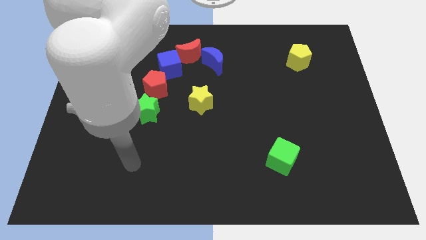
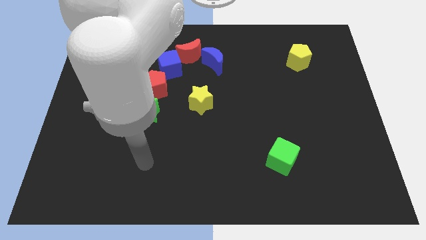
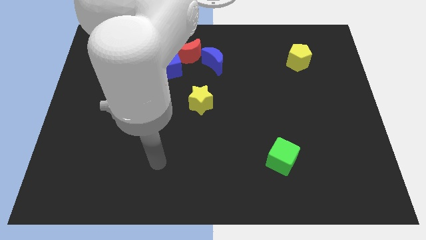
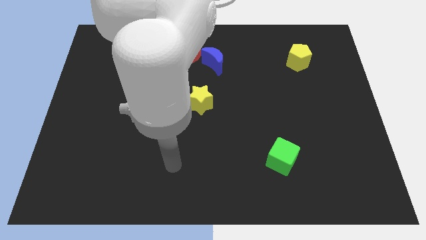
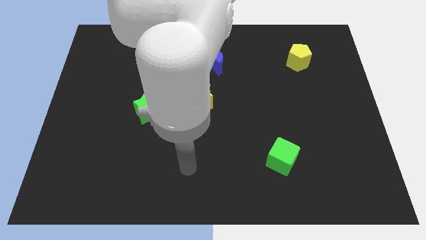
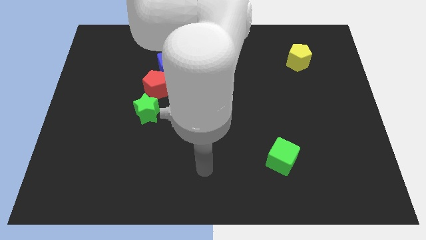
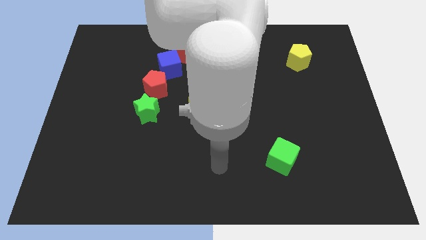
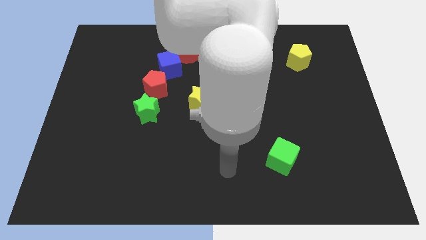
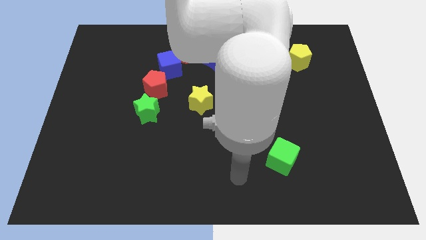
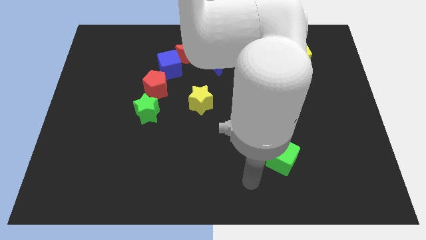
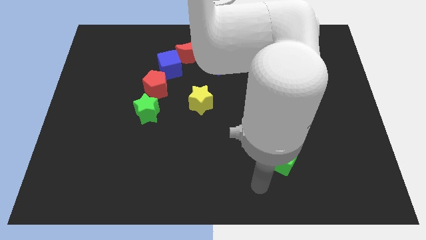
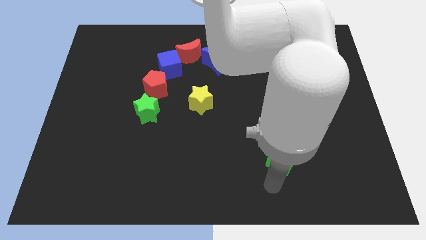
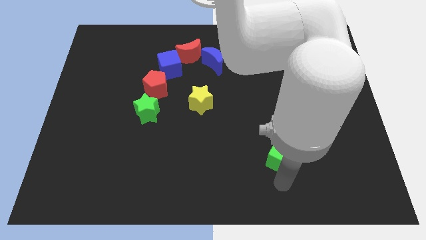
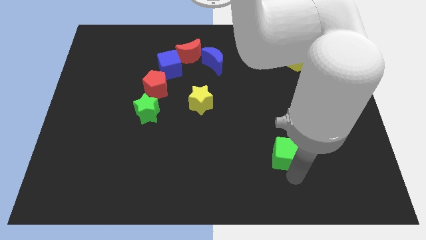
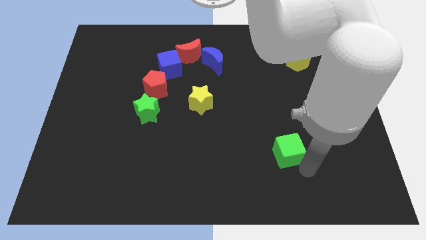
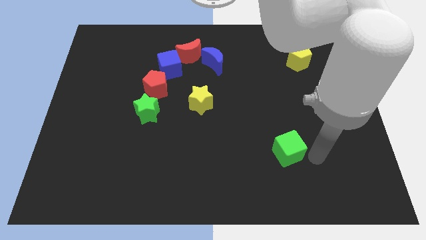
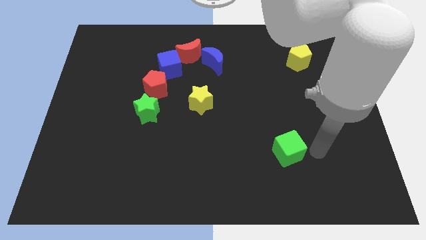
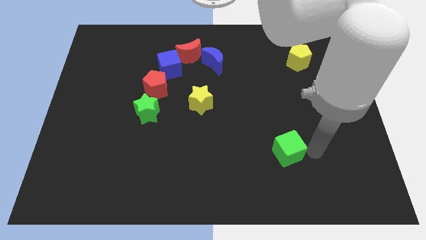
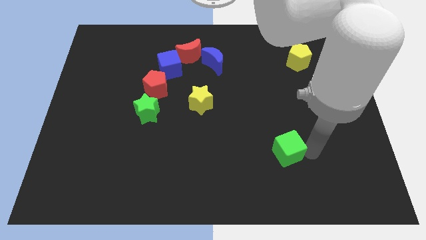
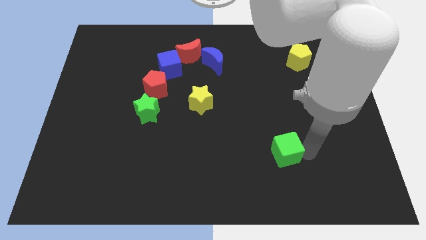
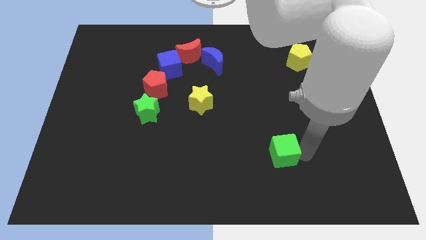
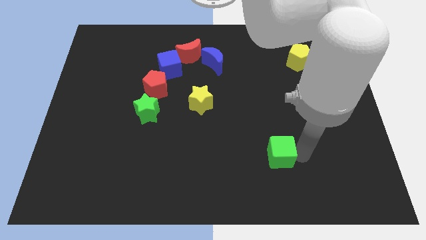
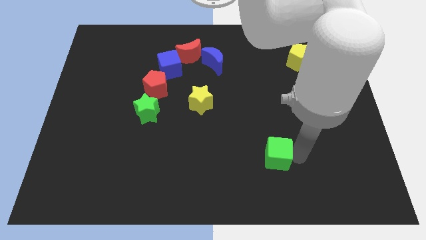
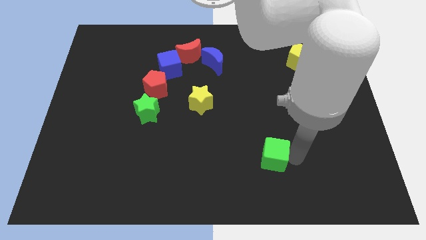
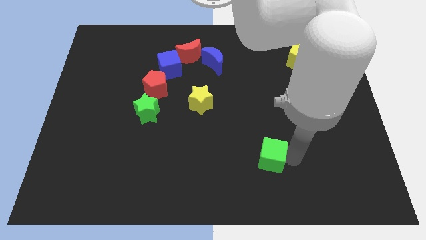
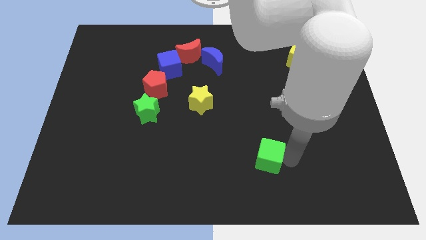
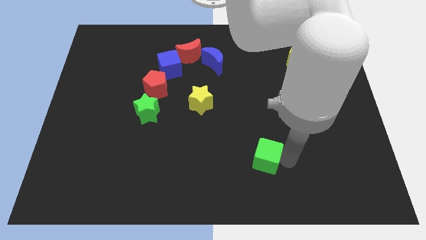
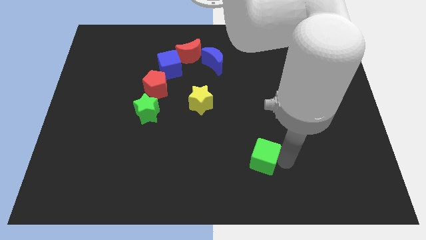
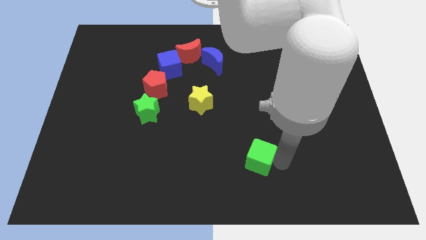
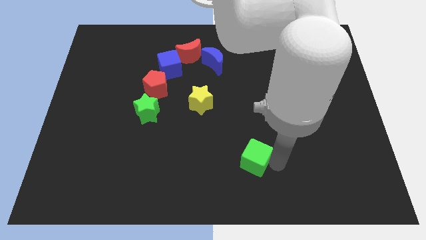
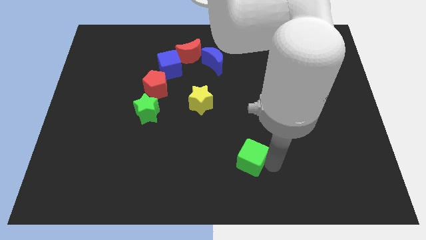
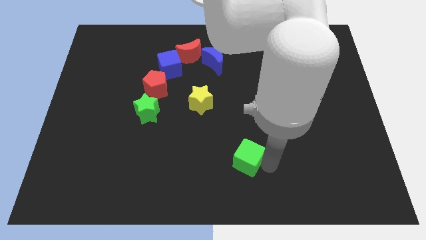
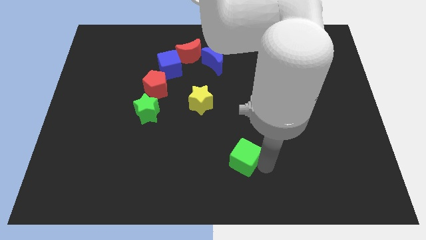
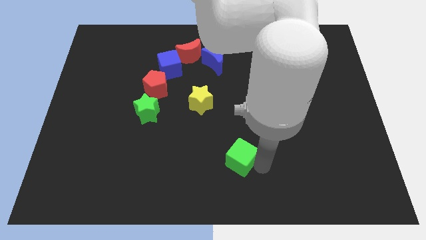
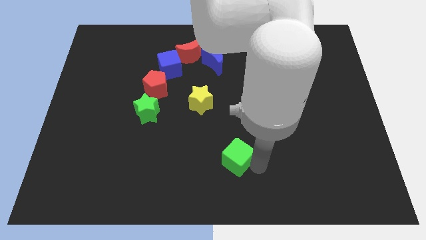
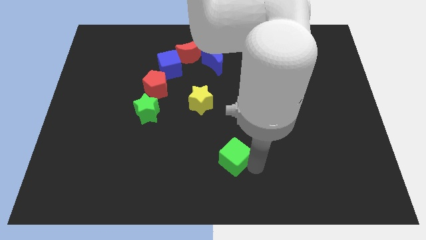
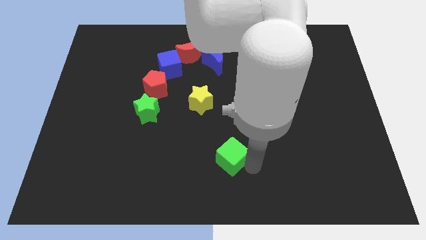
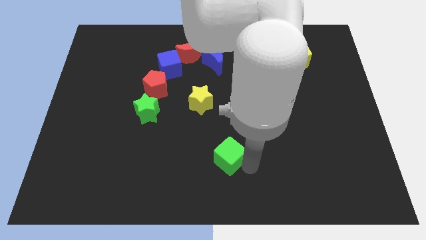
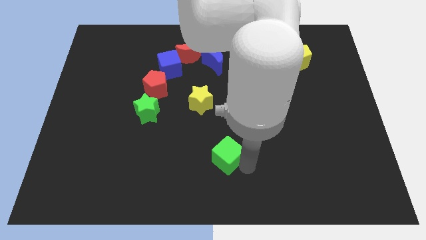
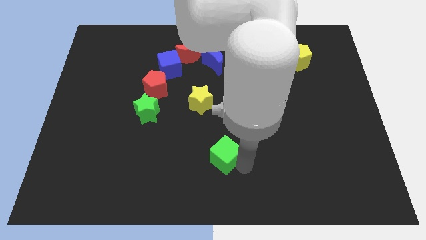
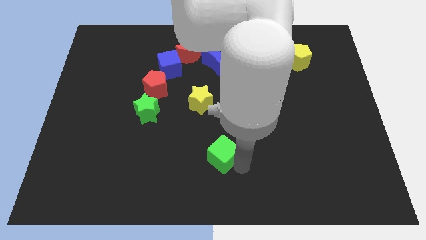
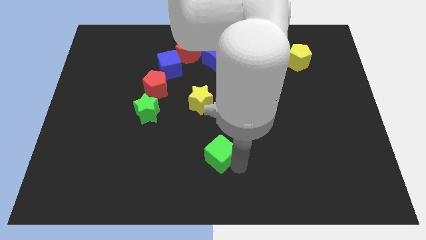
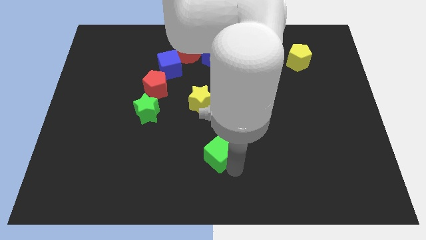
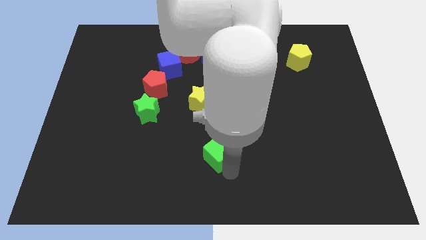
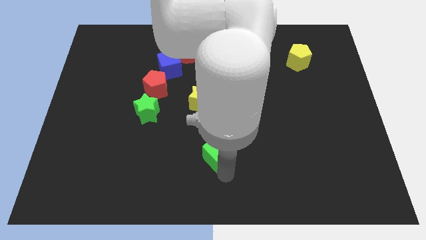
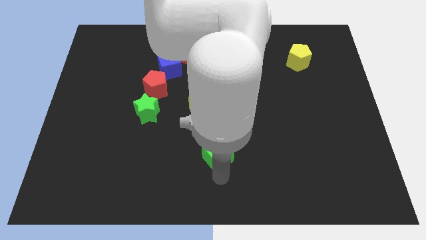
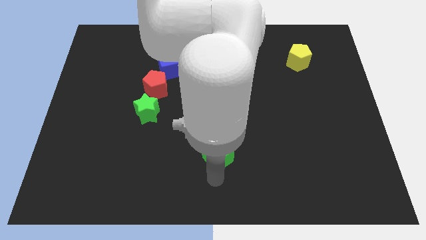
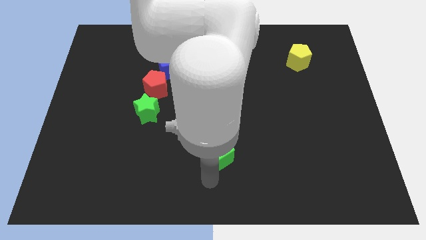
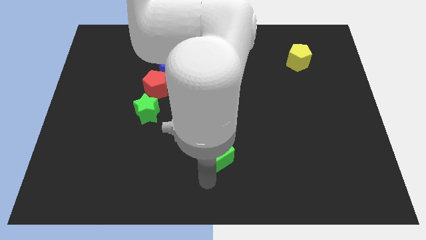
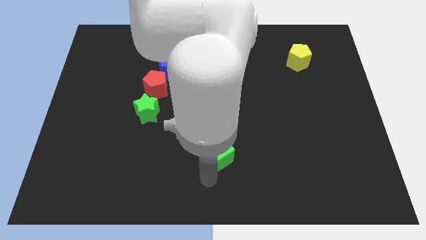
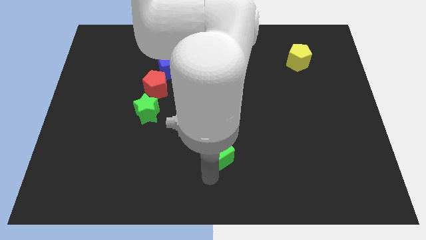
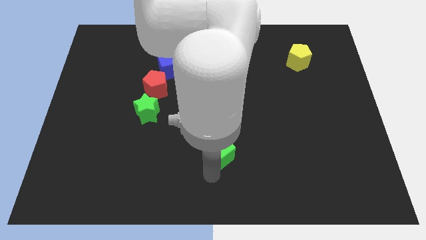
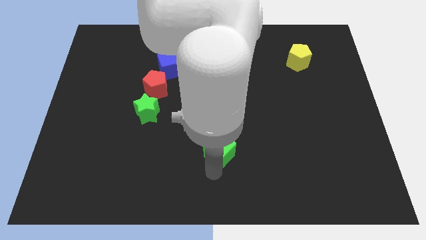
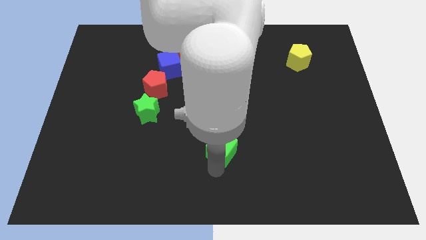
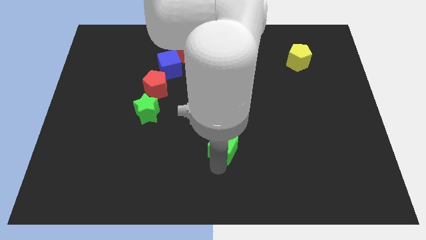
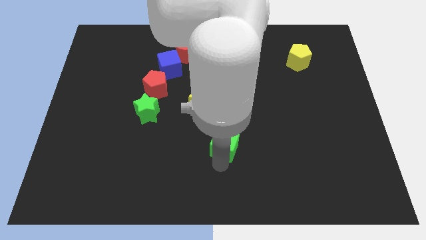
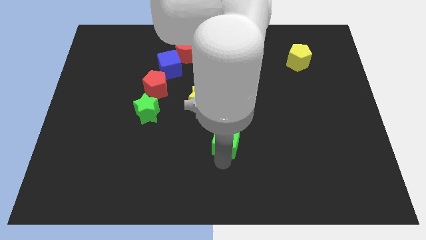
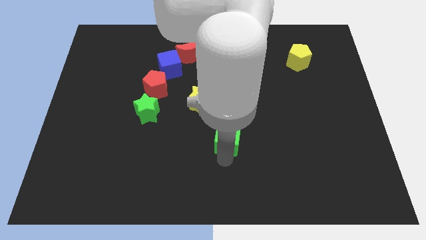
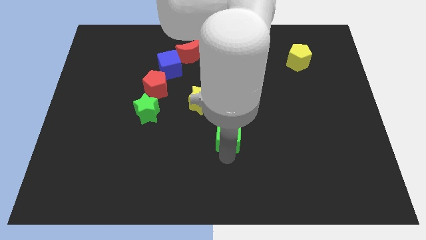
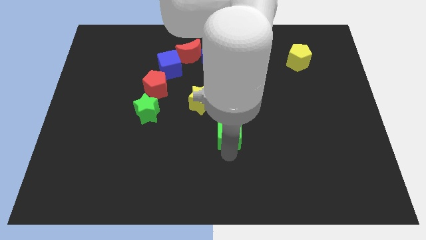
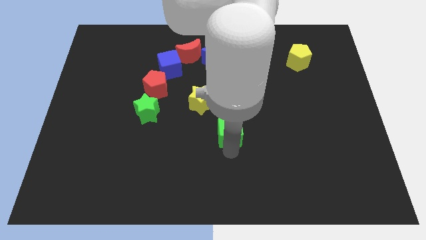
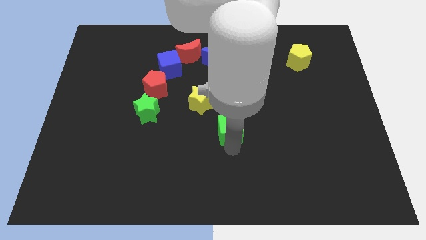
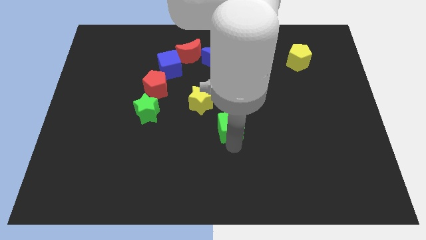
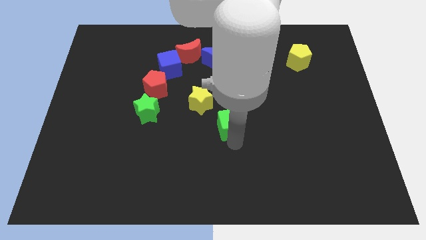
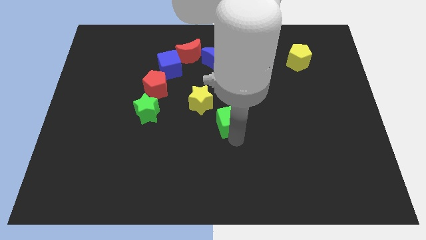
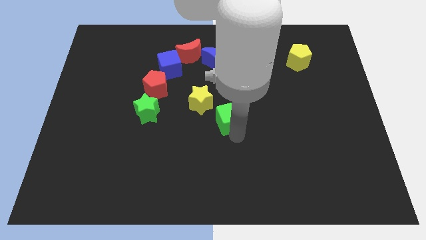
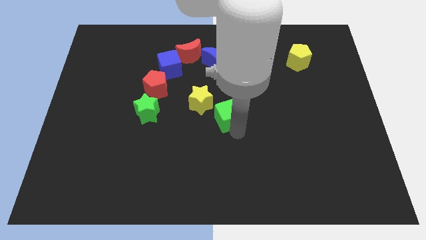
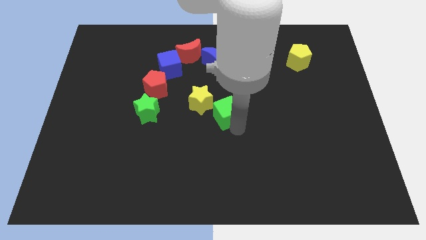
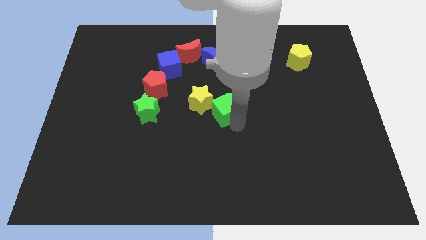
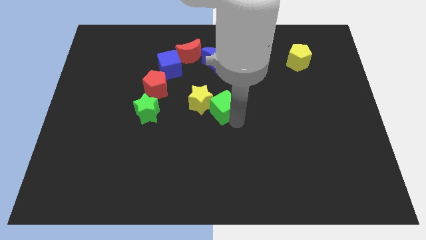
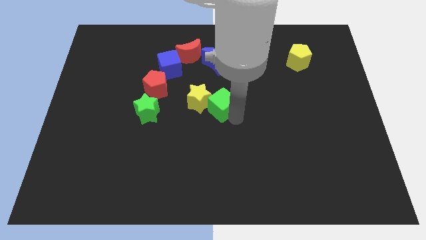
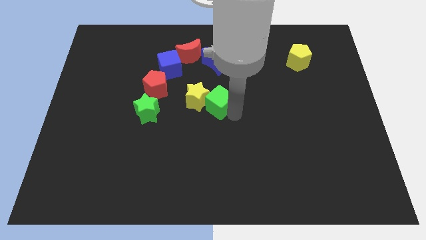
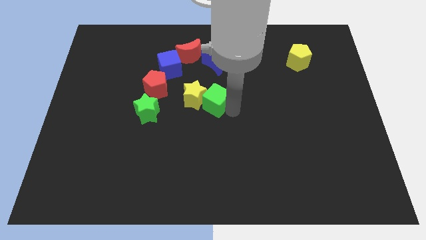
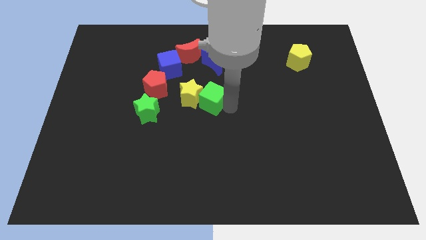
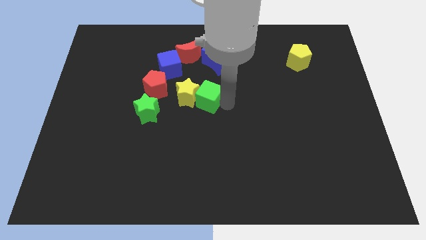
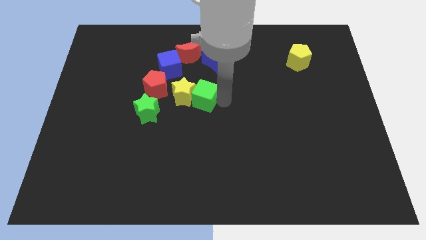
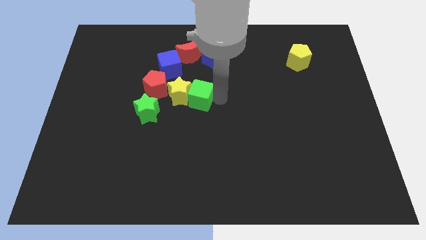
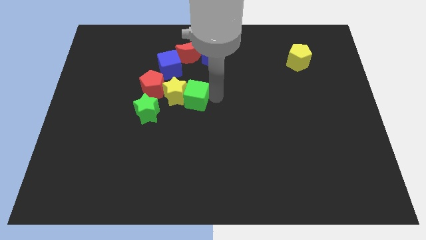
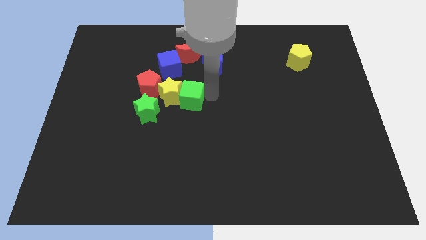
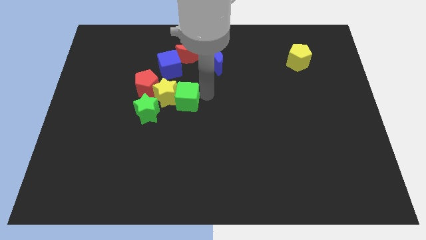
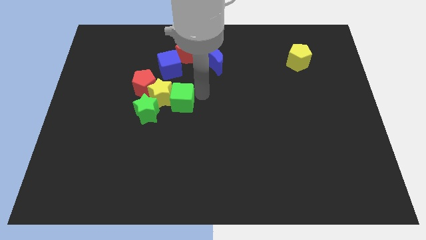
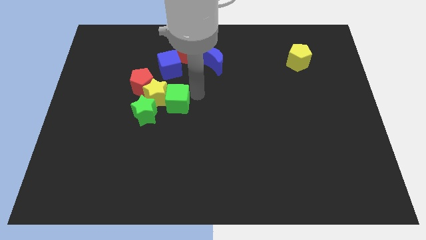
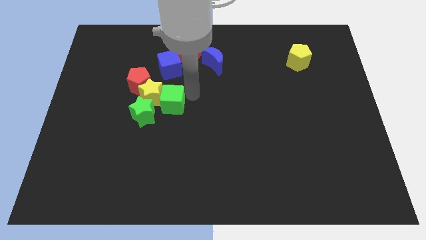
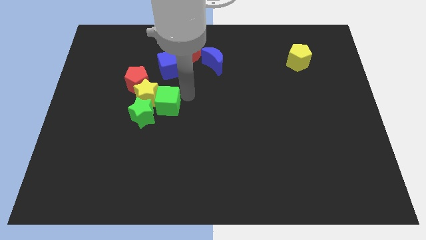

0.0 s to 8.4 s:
move the green cube close to the green star
